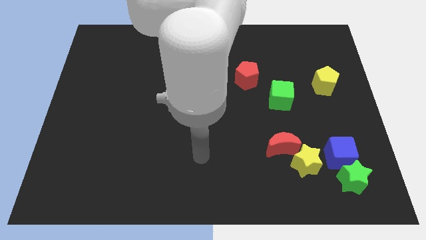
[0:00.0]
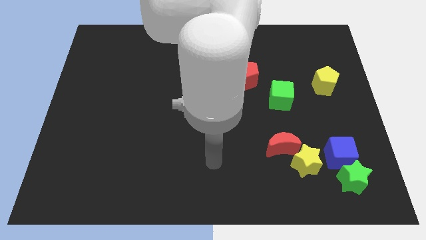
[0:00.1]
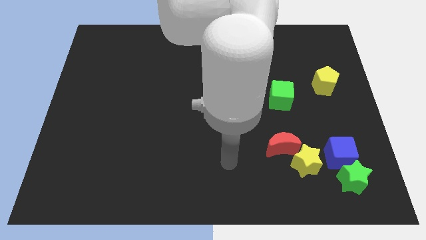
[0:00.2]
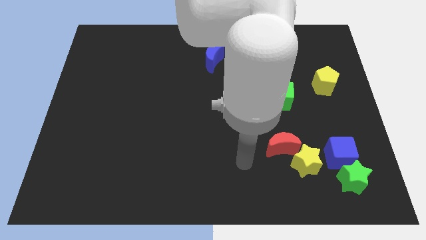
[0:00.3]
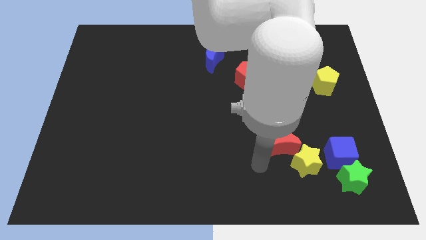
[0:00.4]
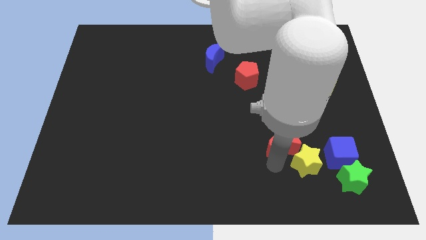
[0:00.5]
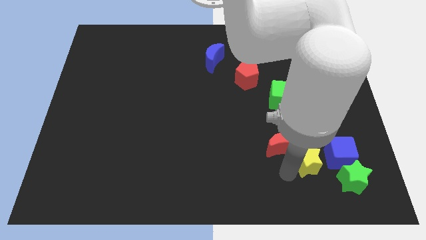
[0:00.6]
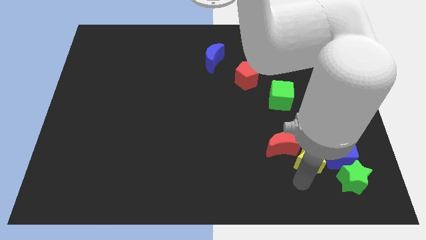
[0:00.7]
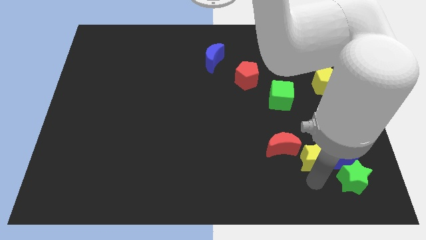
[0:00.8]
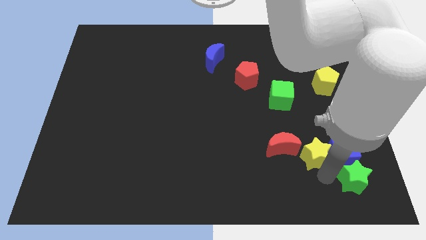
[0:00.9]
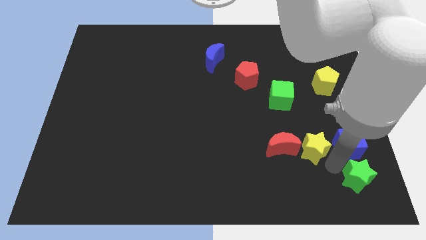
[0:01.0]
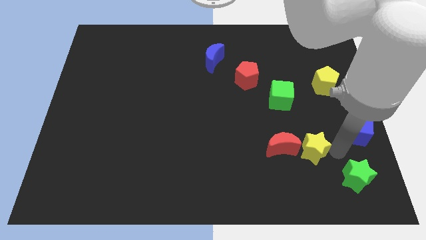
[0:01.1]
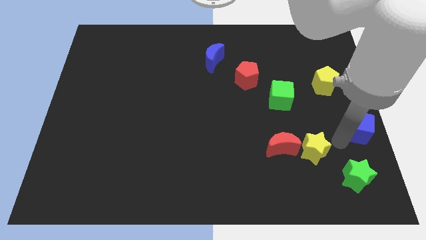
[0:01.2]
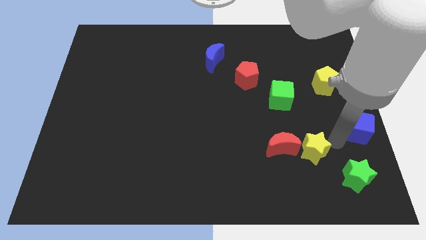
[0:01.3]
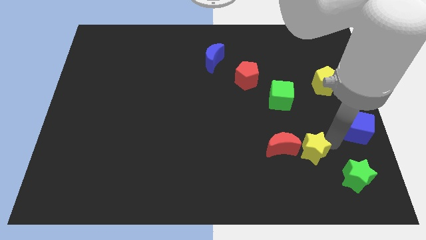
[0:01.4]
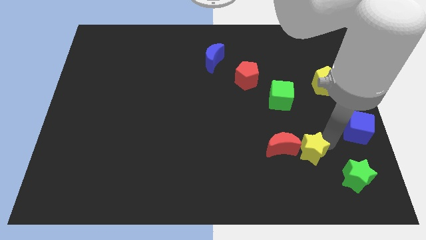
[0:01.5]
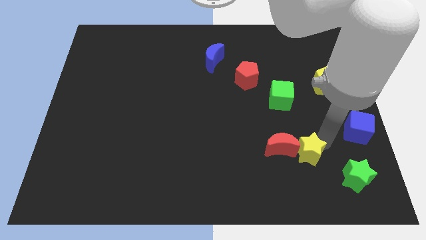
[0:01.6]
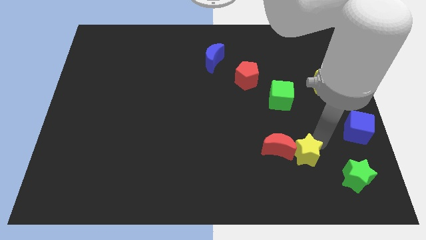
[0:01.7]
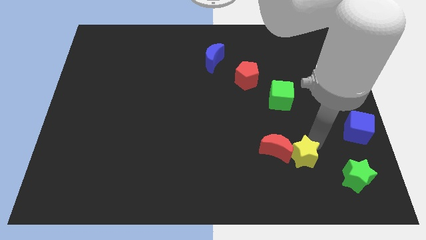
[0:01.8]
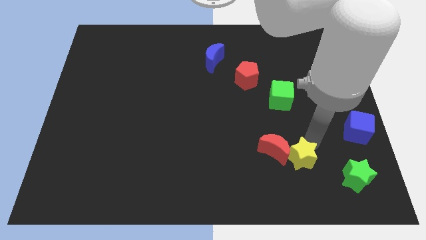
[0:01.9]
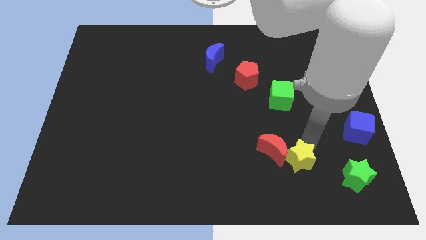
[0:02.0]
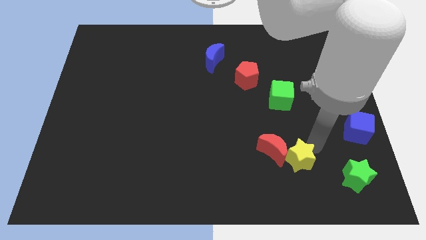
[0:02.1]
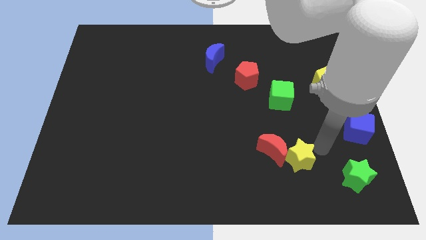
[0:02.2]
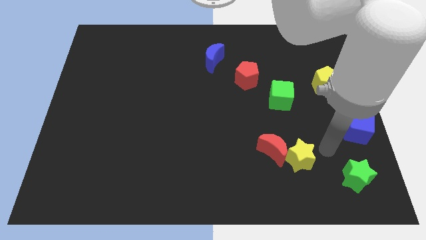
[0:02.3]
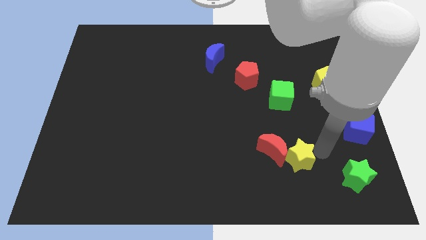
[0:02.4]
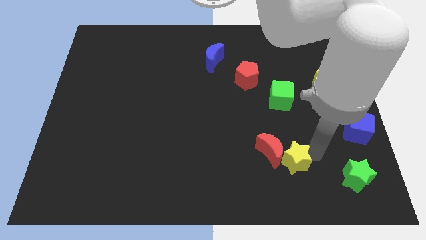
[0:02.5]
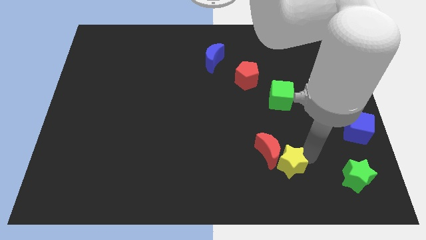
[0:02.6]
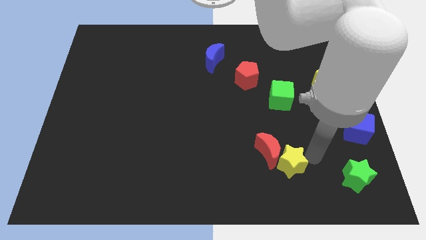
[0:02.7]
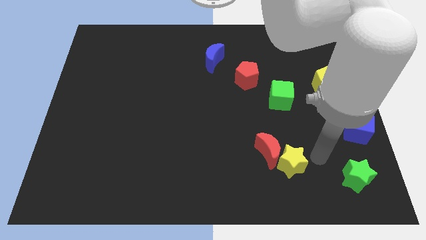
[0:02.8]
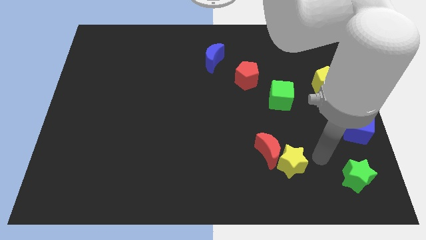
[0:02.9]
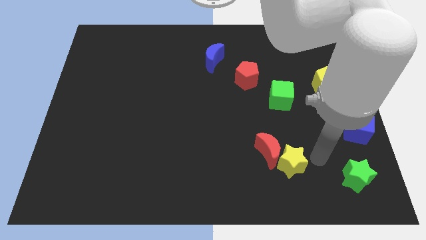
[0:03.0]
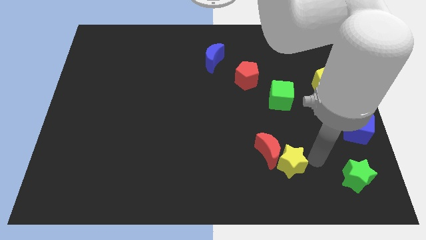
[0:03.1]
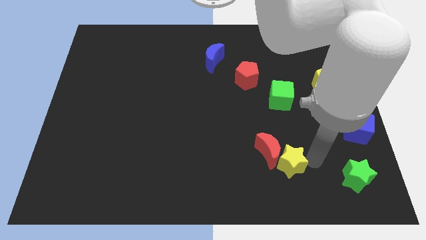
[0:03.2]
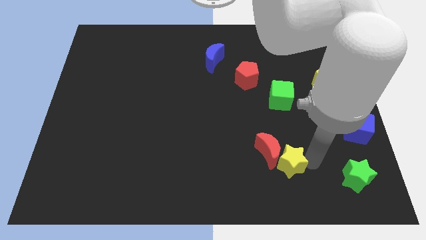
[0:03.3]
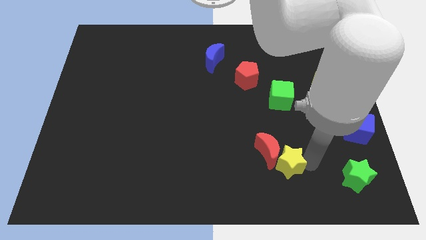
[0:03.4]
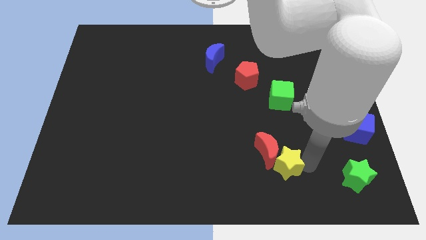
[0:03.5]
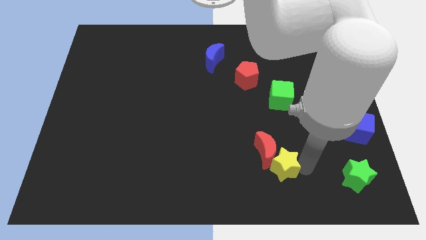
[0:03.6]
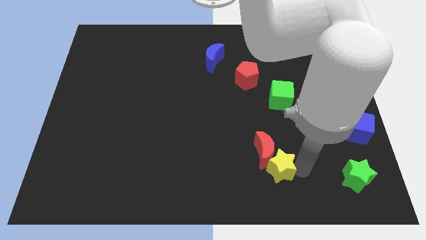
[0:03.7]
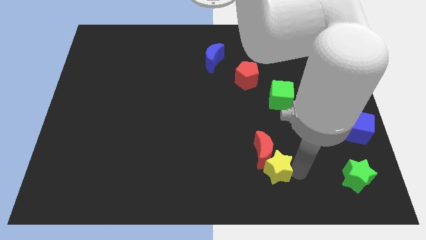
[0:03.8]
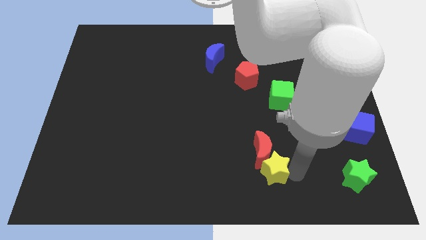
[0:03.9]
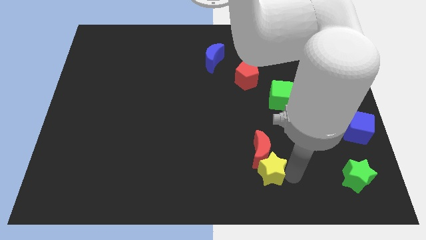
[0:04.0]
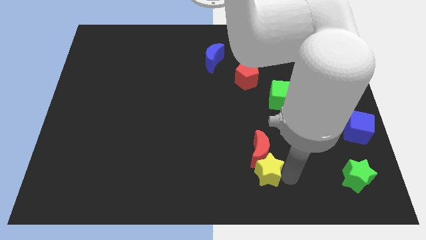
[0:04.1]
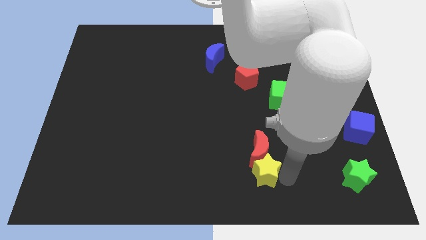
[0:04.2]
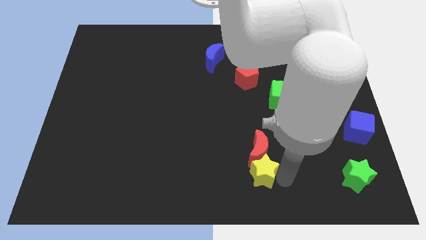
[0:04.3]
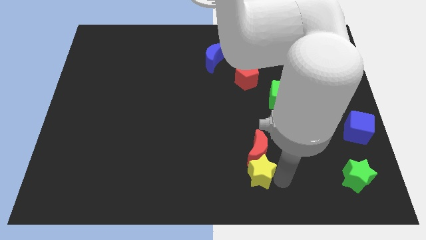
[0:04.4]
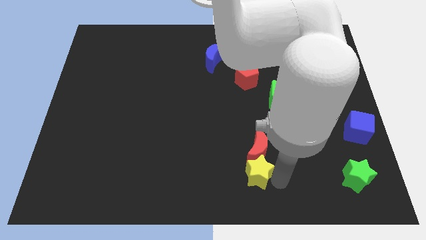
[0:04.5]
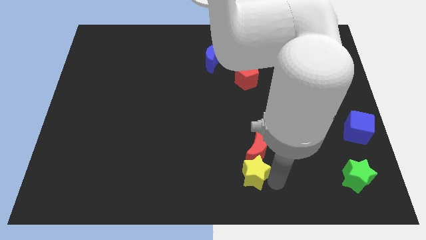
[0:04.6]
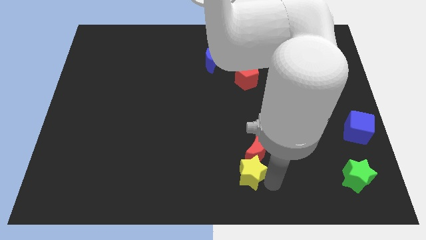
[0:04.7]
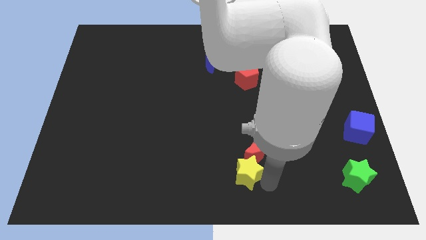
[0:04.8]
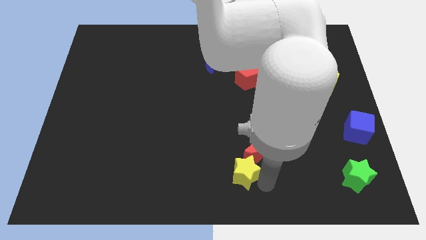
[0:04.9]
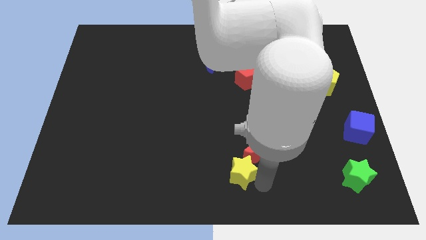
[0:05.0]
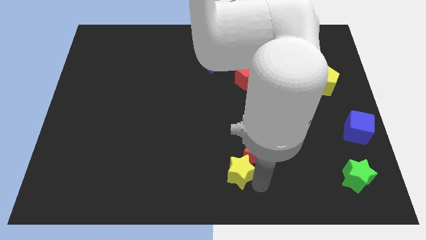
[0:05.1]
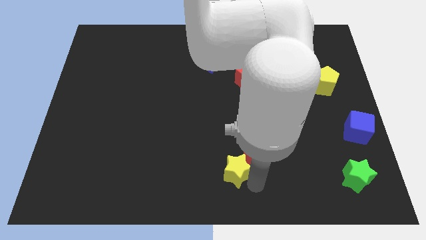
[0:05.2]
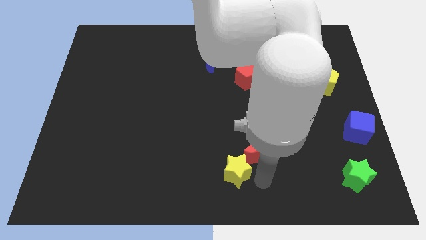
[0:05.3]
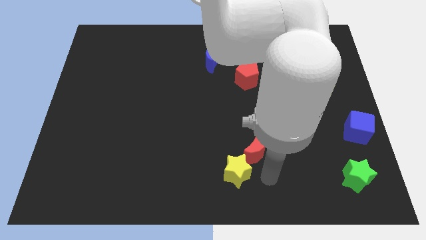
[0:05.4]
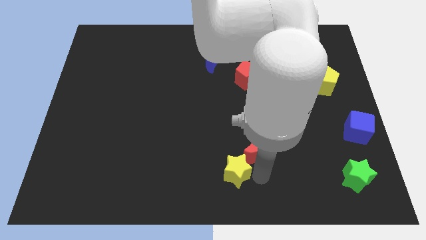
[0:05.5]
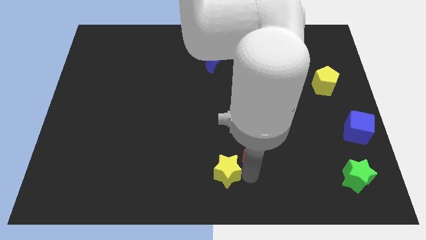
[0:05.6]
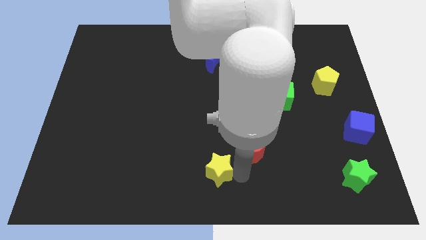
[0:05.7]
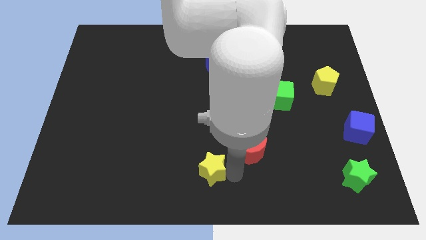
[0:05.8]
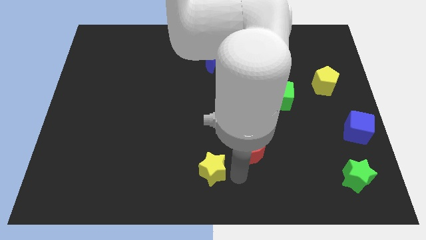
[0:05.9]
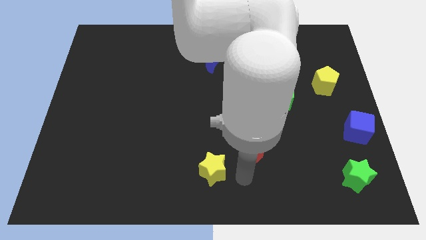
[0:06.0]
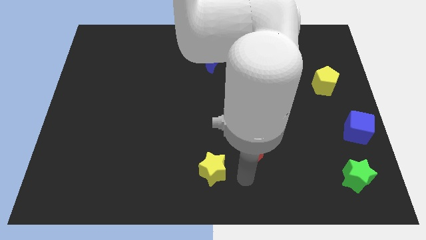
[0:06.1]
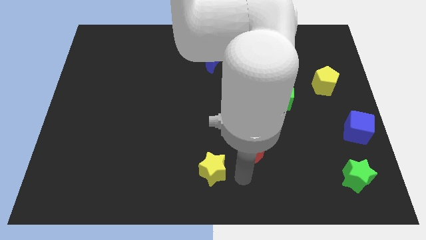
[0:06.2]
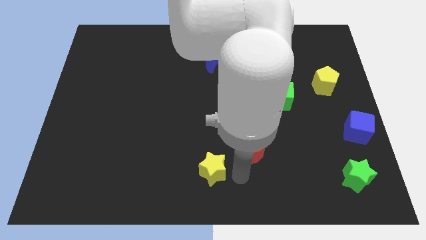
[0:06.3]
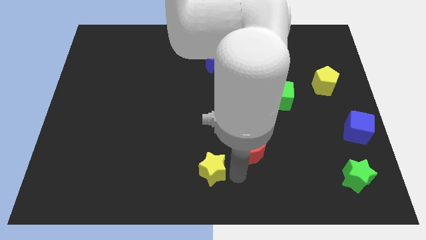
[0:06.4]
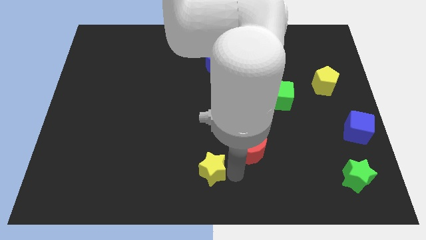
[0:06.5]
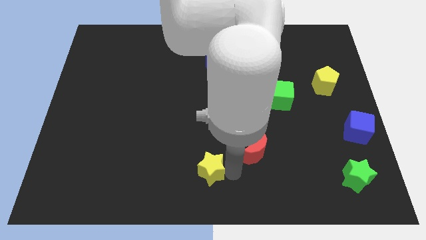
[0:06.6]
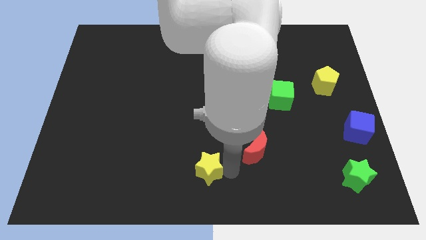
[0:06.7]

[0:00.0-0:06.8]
slide the yellow star left

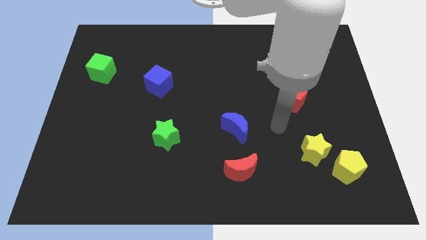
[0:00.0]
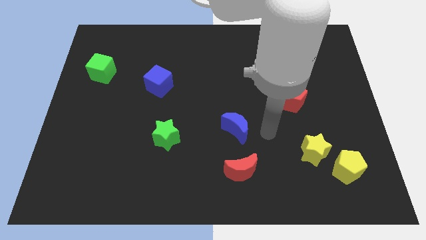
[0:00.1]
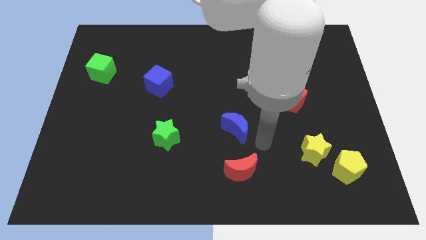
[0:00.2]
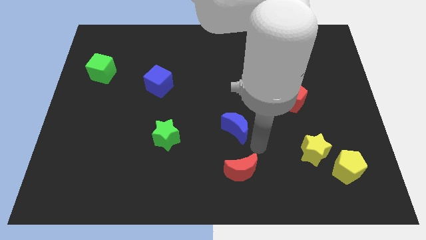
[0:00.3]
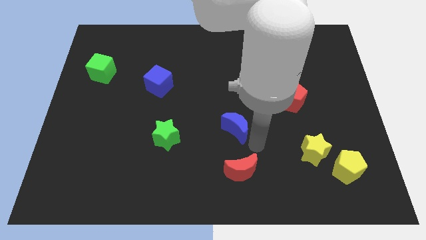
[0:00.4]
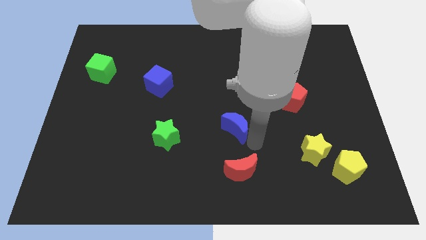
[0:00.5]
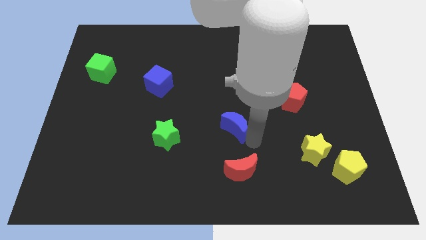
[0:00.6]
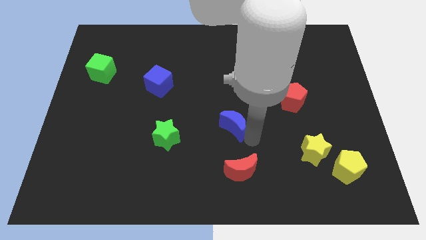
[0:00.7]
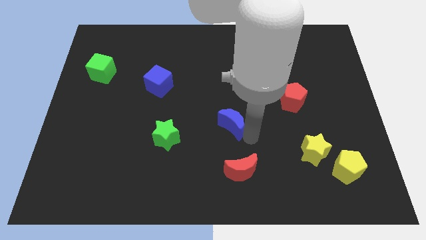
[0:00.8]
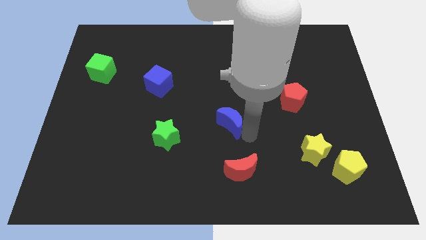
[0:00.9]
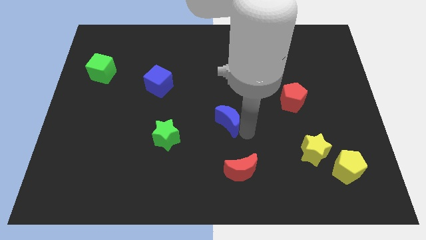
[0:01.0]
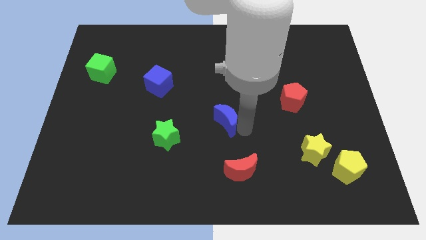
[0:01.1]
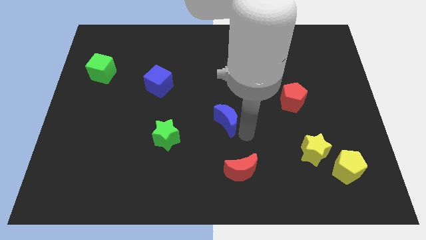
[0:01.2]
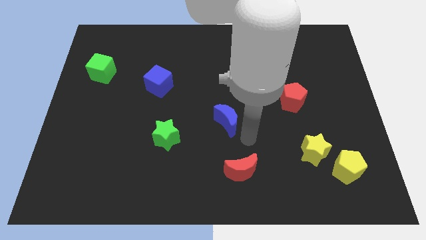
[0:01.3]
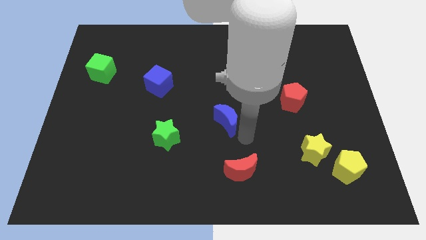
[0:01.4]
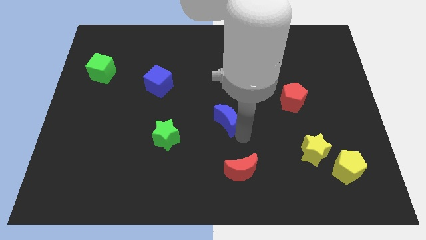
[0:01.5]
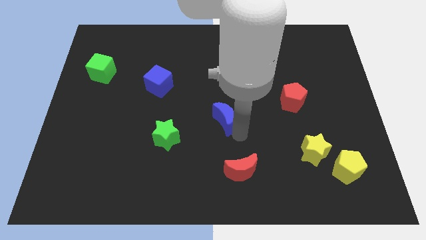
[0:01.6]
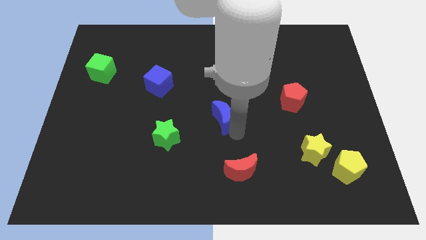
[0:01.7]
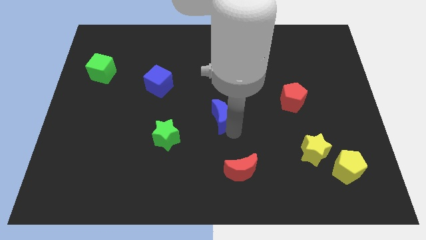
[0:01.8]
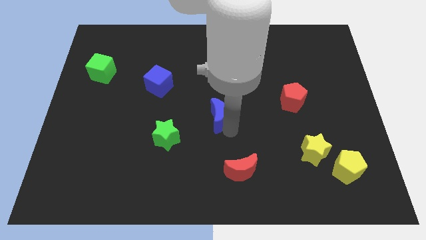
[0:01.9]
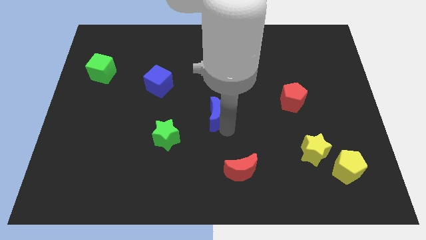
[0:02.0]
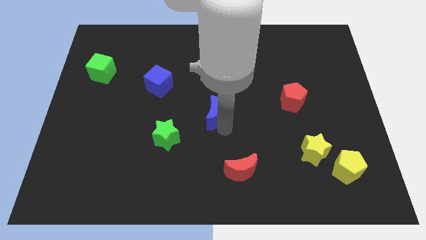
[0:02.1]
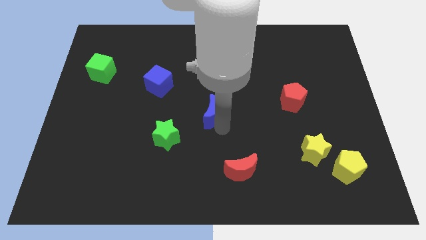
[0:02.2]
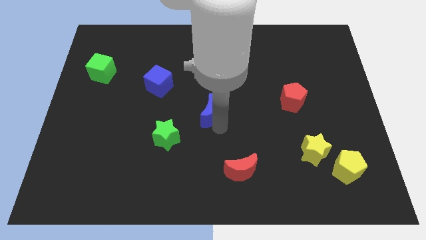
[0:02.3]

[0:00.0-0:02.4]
slide the blue moon up and left a bit
